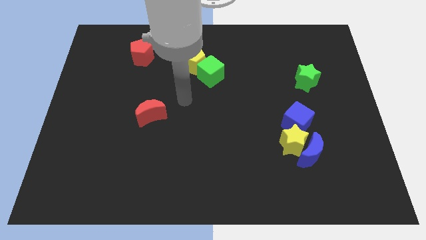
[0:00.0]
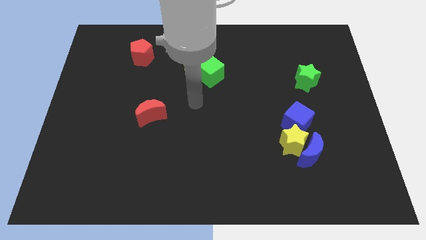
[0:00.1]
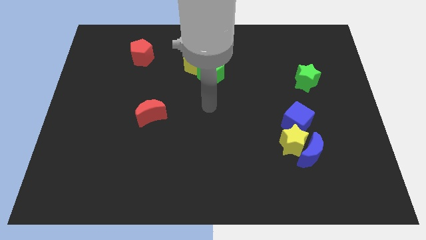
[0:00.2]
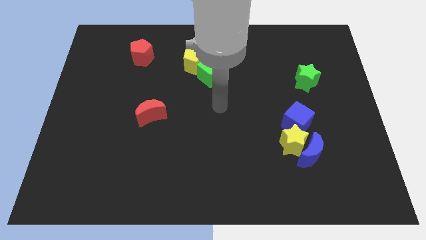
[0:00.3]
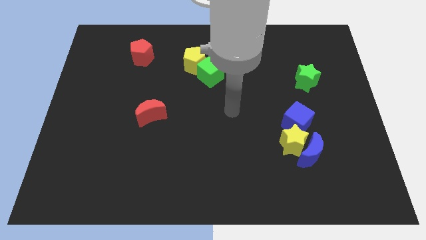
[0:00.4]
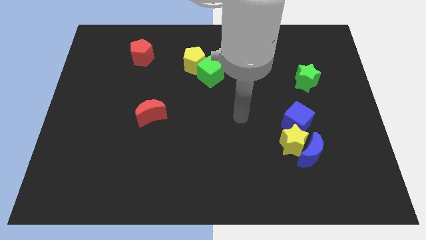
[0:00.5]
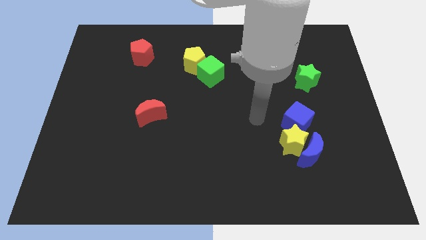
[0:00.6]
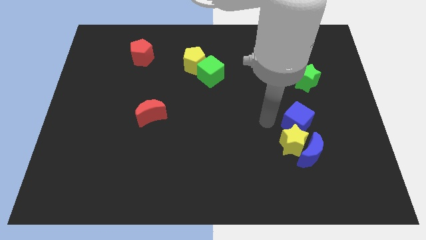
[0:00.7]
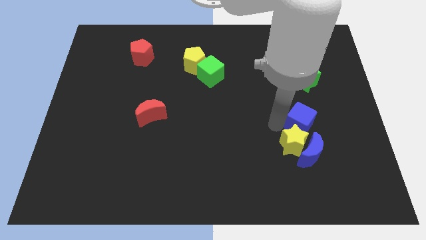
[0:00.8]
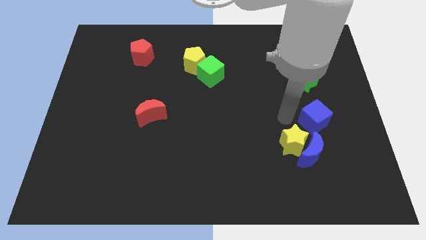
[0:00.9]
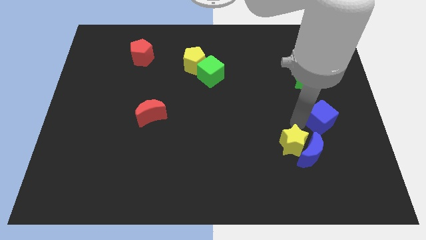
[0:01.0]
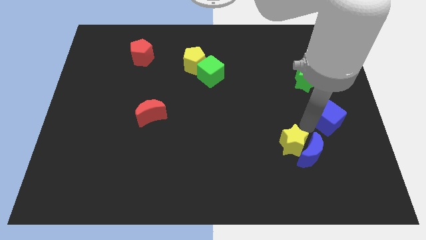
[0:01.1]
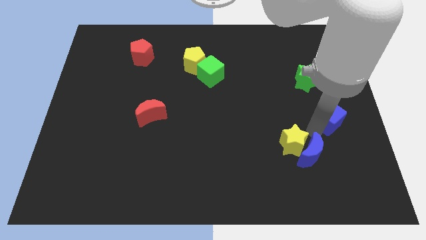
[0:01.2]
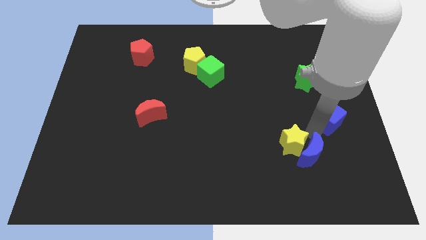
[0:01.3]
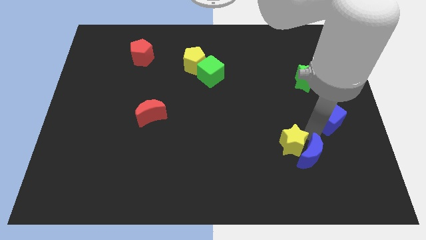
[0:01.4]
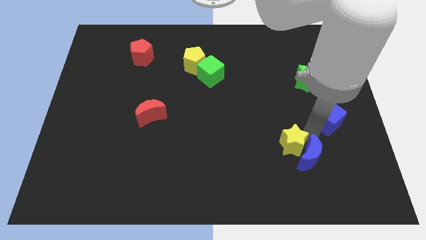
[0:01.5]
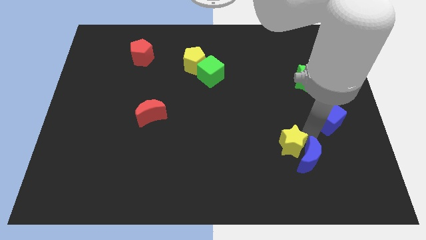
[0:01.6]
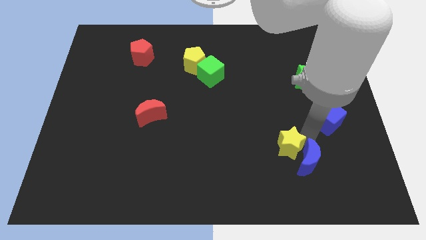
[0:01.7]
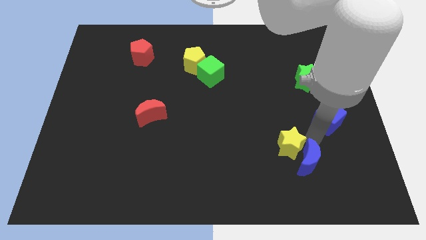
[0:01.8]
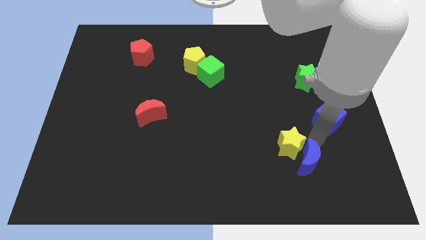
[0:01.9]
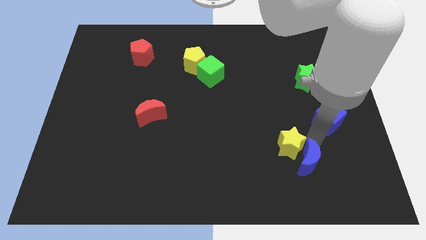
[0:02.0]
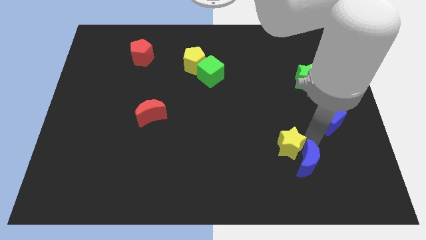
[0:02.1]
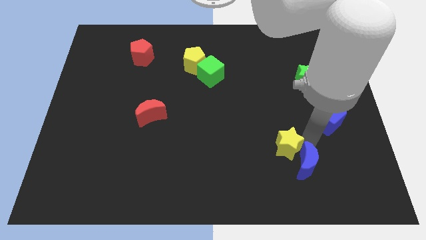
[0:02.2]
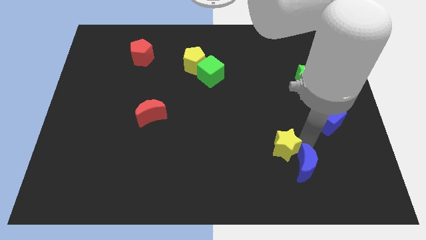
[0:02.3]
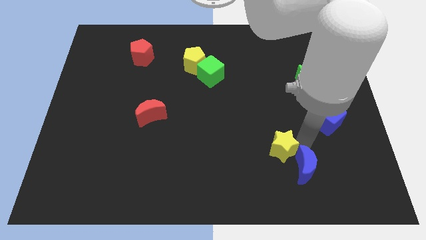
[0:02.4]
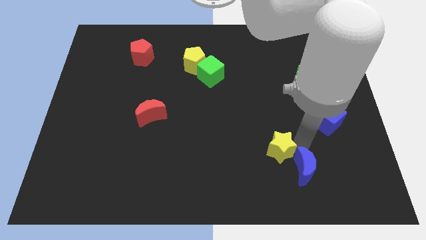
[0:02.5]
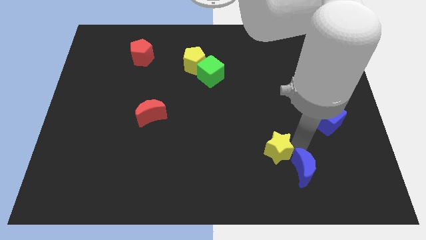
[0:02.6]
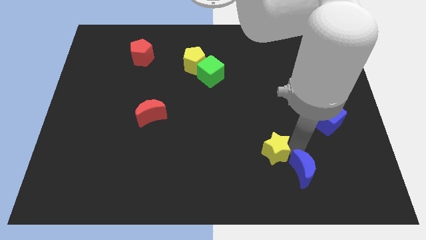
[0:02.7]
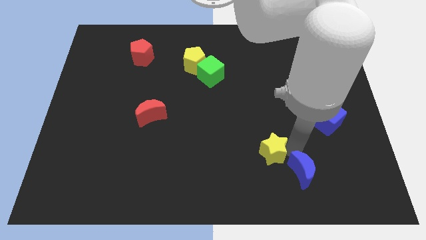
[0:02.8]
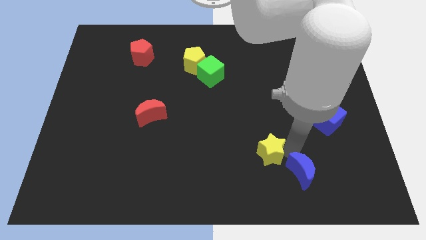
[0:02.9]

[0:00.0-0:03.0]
pull the yellow star apart from the blue moon and blue cube

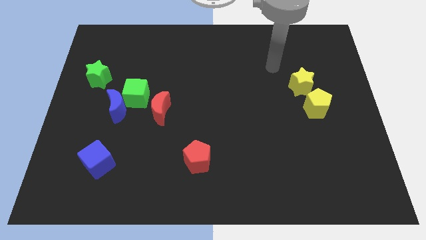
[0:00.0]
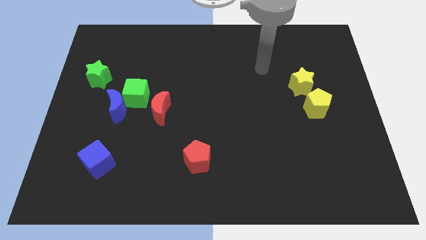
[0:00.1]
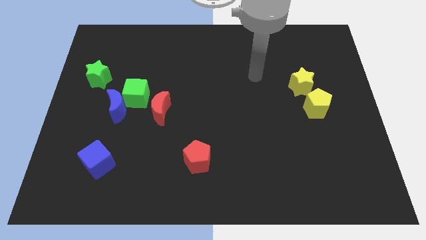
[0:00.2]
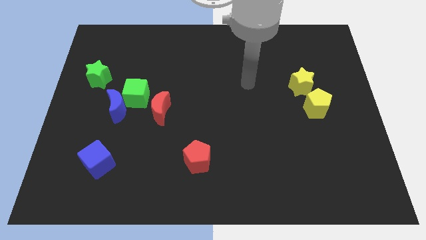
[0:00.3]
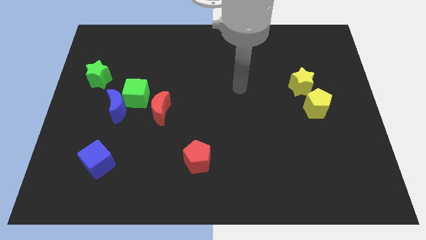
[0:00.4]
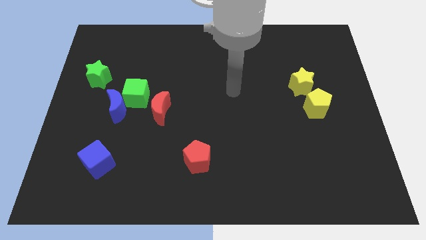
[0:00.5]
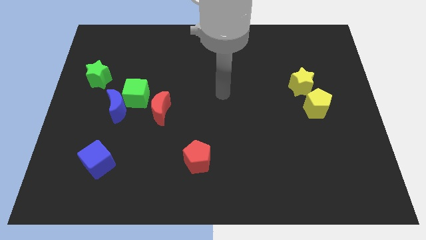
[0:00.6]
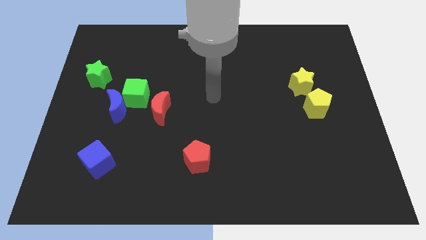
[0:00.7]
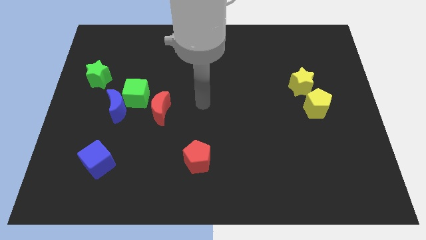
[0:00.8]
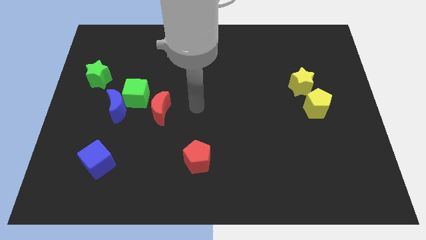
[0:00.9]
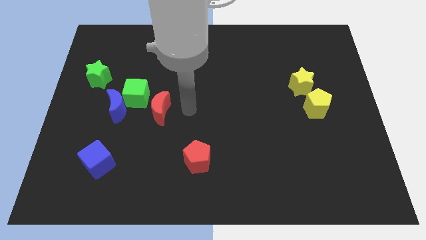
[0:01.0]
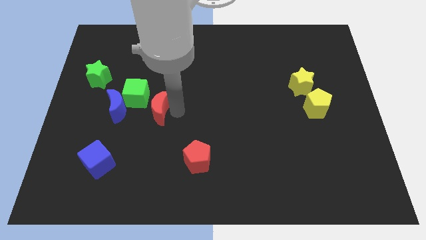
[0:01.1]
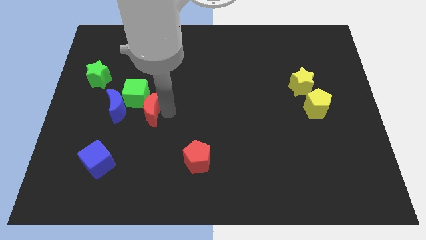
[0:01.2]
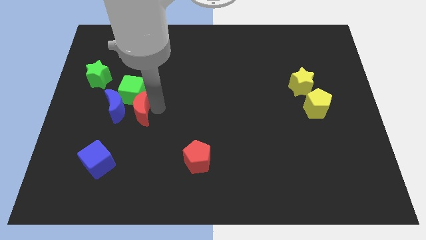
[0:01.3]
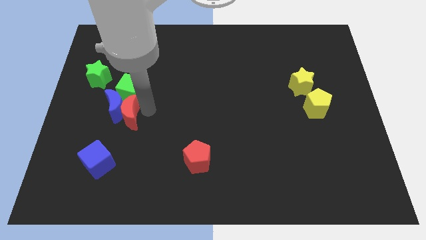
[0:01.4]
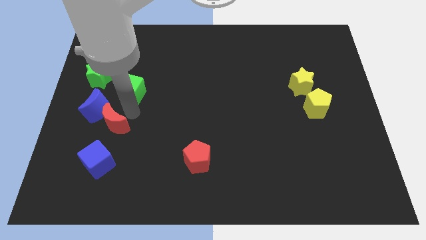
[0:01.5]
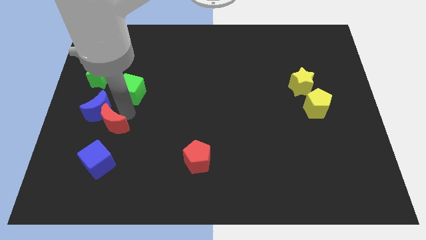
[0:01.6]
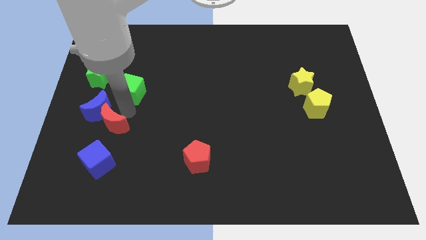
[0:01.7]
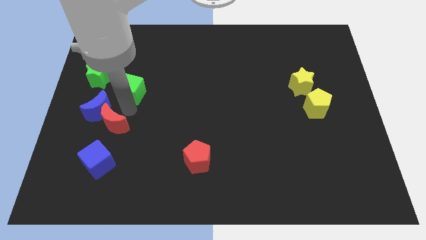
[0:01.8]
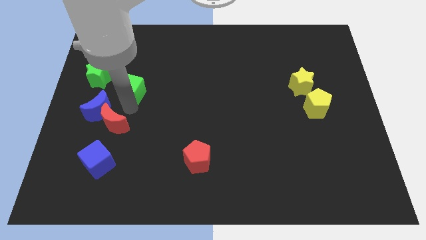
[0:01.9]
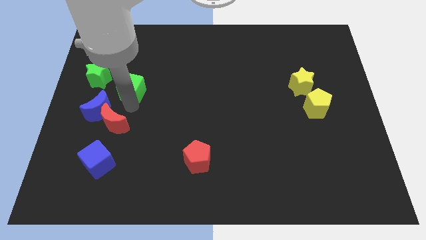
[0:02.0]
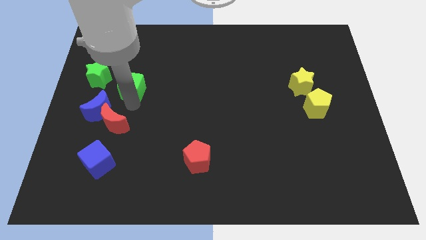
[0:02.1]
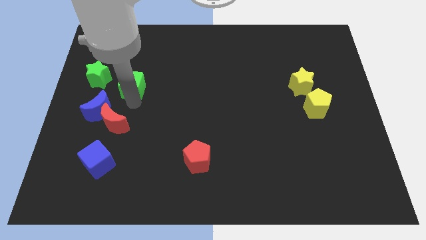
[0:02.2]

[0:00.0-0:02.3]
separate the green cube from the blue moon and red moon

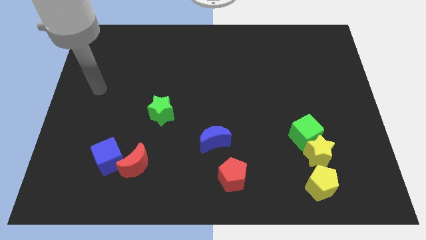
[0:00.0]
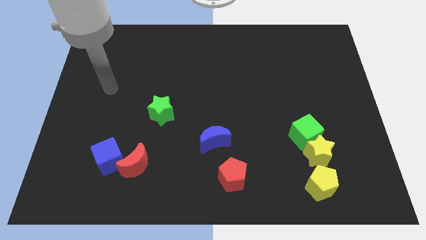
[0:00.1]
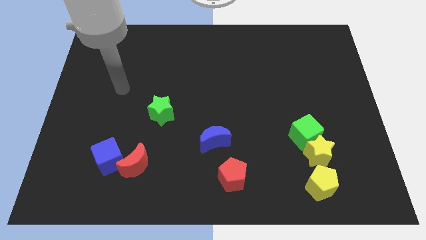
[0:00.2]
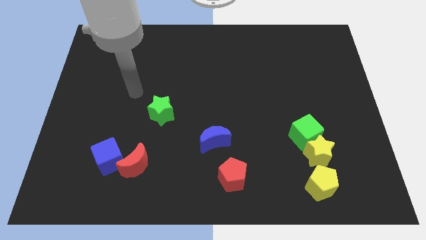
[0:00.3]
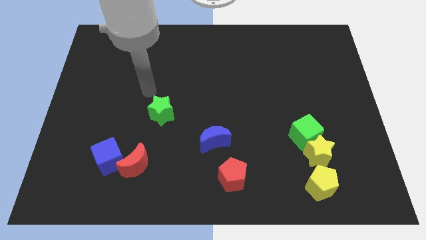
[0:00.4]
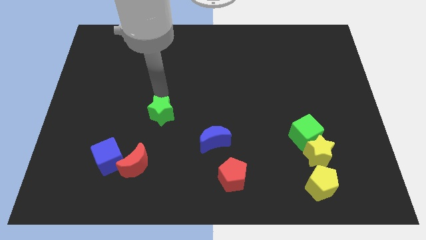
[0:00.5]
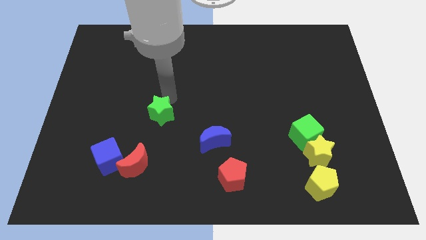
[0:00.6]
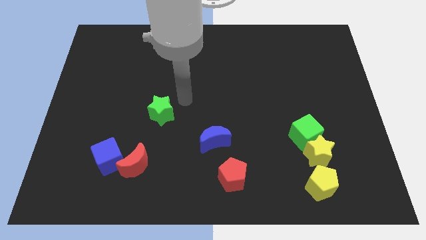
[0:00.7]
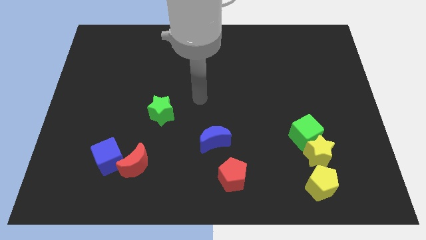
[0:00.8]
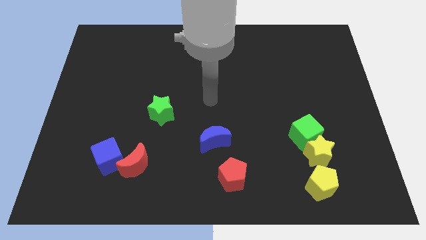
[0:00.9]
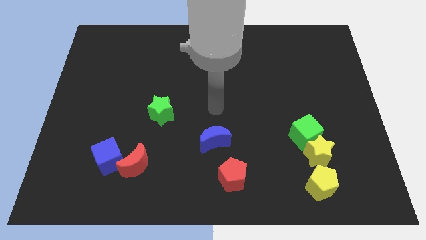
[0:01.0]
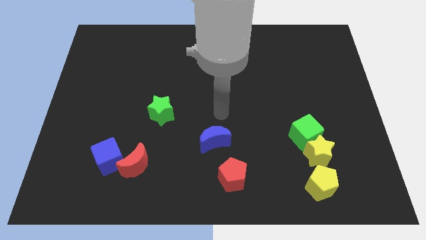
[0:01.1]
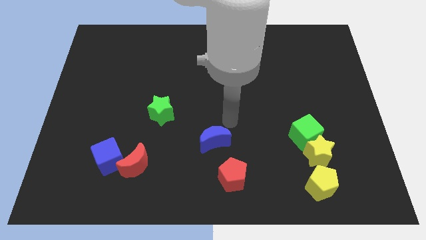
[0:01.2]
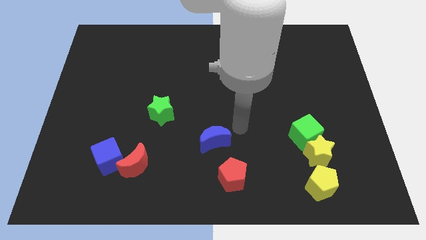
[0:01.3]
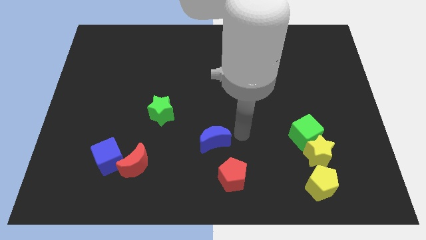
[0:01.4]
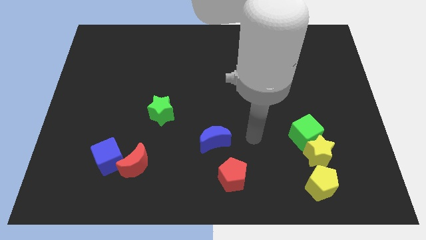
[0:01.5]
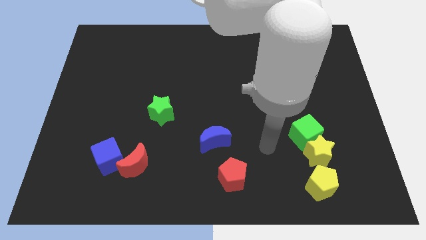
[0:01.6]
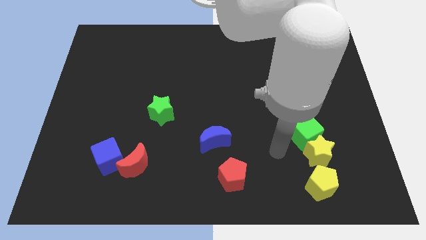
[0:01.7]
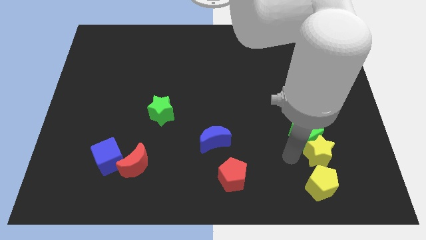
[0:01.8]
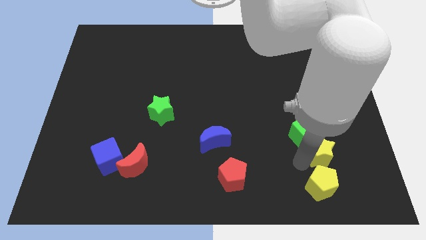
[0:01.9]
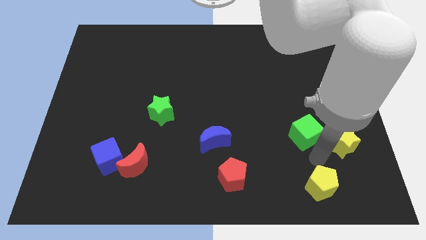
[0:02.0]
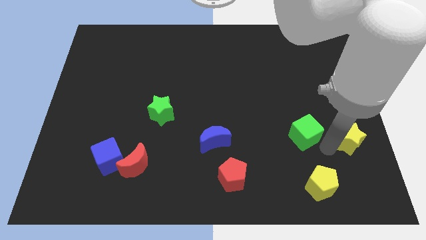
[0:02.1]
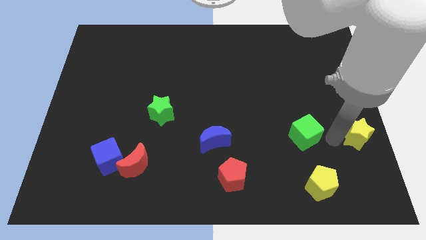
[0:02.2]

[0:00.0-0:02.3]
separate the green cube from the yellow star

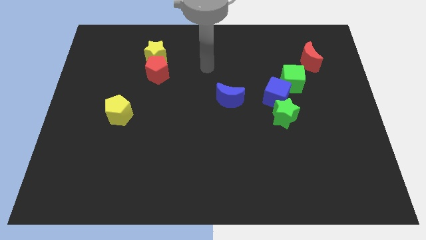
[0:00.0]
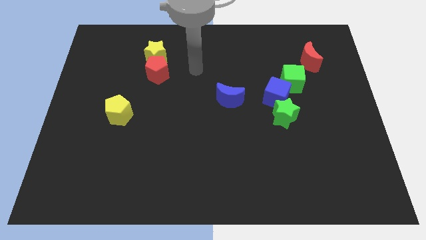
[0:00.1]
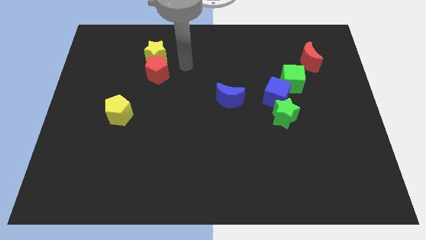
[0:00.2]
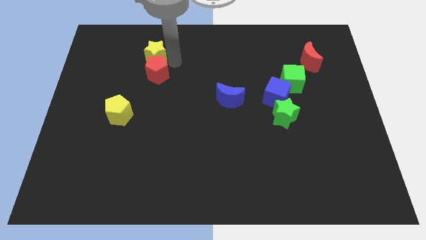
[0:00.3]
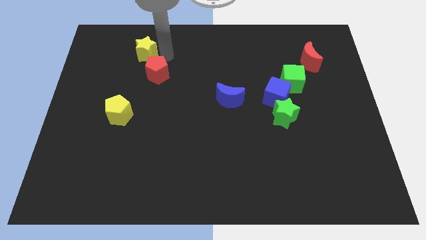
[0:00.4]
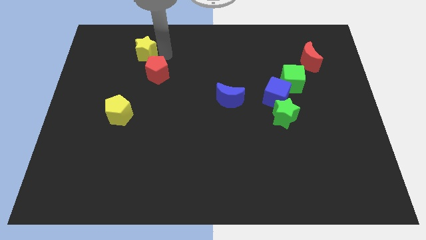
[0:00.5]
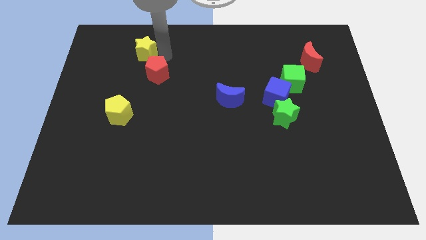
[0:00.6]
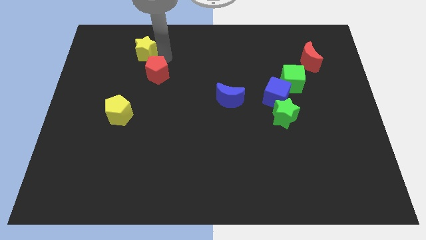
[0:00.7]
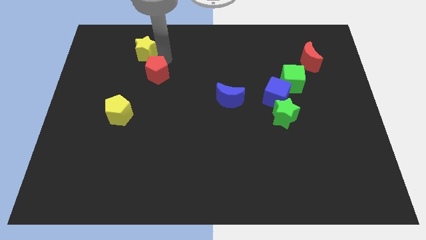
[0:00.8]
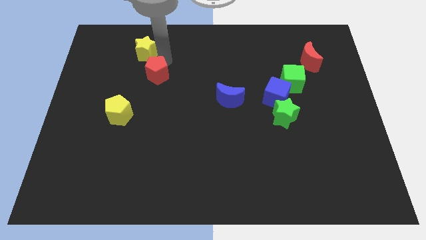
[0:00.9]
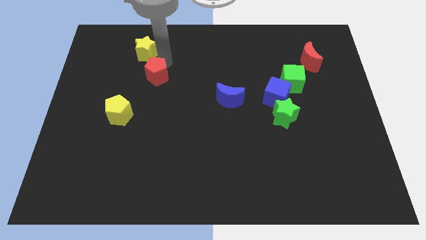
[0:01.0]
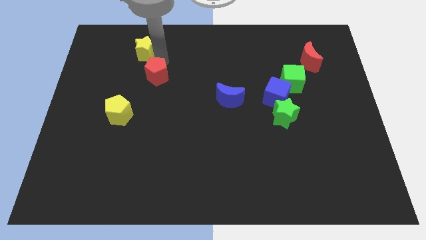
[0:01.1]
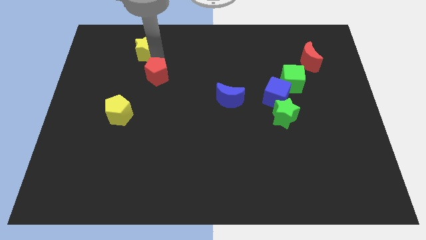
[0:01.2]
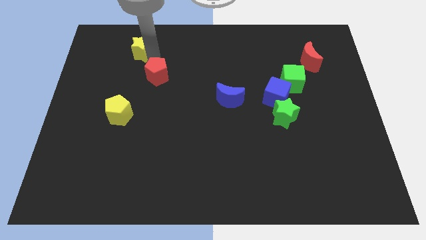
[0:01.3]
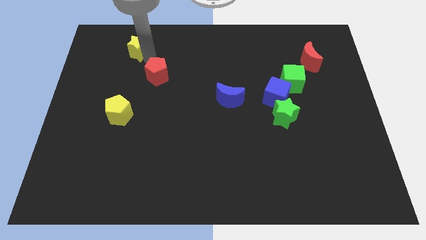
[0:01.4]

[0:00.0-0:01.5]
pull the red pentagon apart from the yellow star

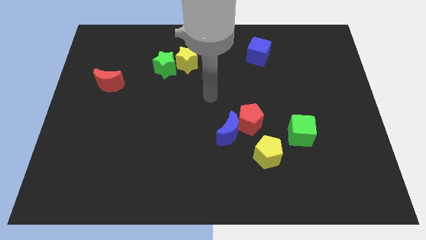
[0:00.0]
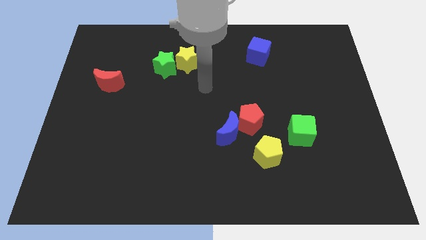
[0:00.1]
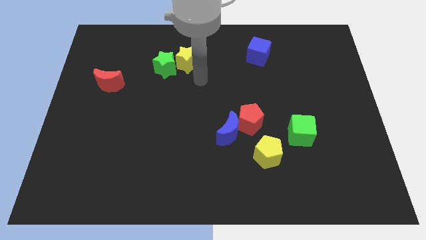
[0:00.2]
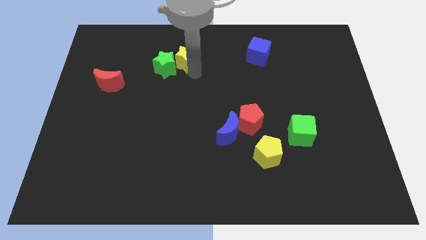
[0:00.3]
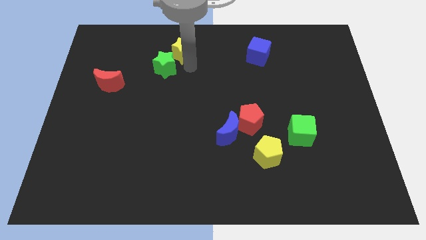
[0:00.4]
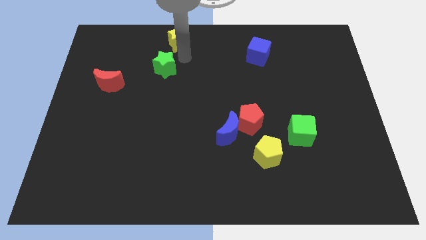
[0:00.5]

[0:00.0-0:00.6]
move the green star away from the yellow star
